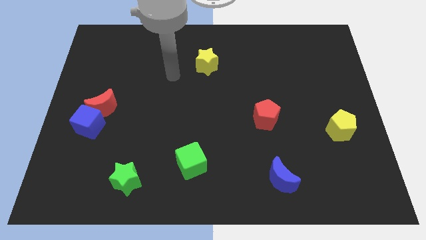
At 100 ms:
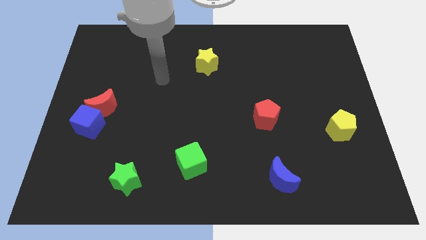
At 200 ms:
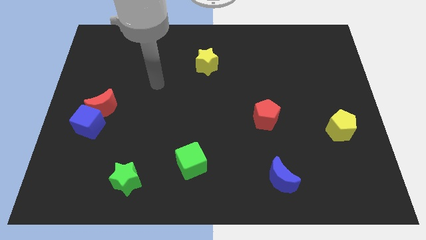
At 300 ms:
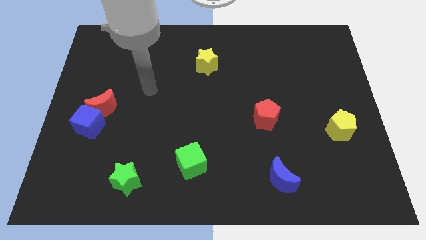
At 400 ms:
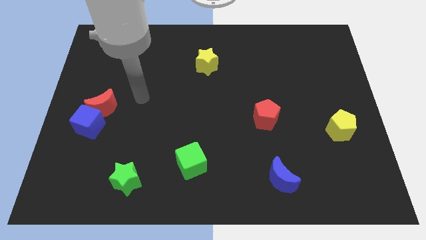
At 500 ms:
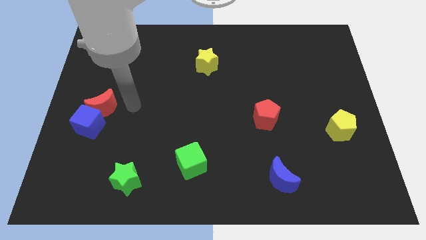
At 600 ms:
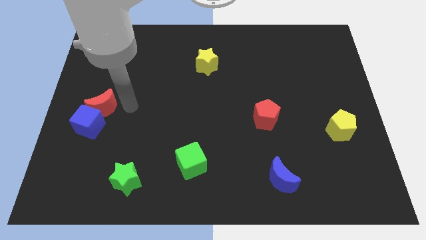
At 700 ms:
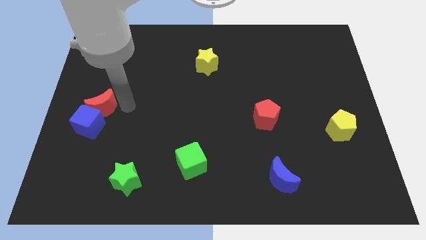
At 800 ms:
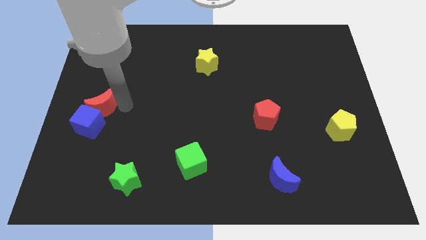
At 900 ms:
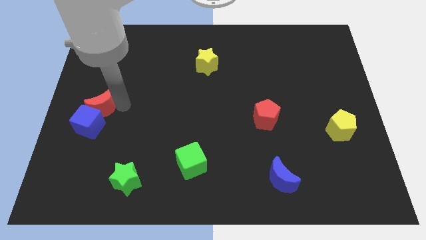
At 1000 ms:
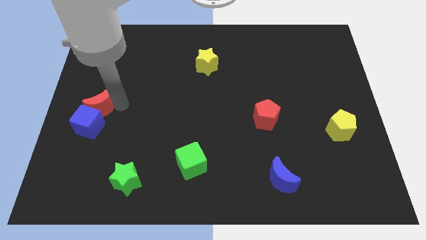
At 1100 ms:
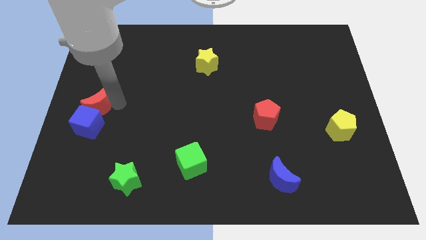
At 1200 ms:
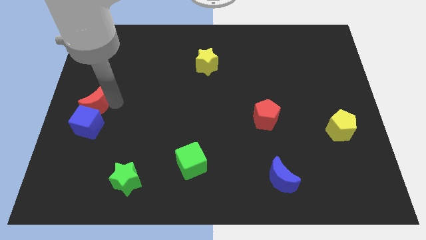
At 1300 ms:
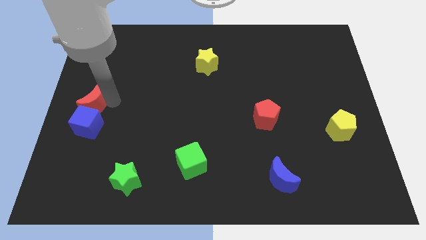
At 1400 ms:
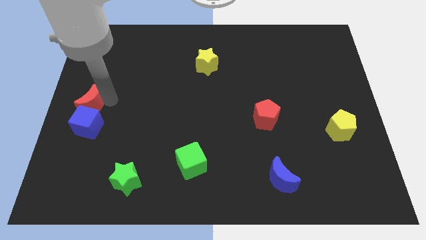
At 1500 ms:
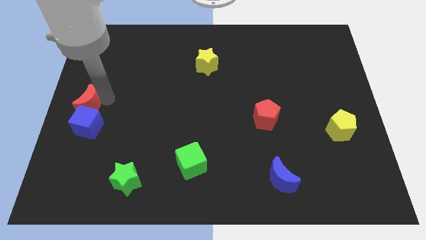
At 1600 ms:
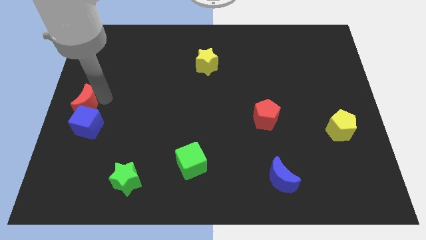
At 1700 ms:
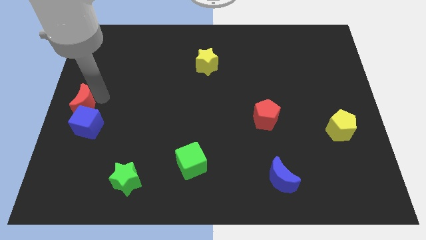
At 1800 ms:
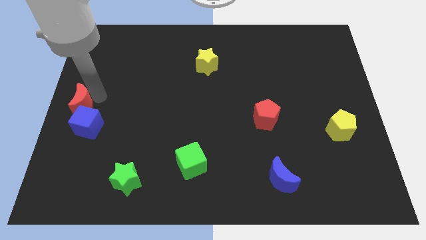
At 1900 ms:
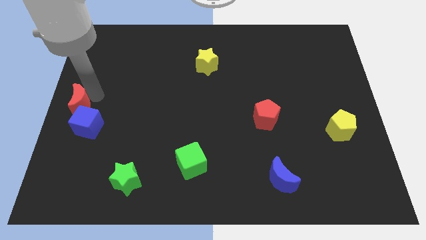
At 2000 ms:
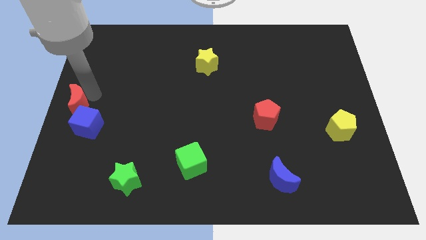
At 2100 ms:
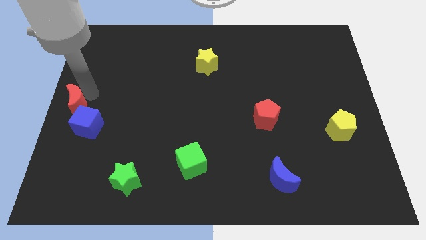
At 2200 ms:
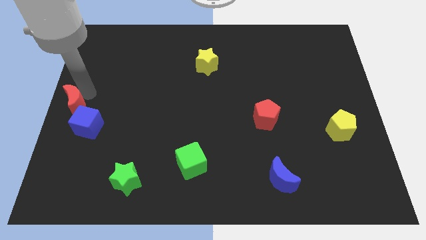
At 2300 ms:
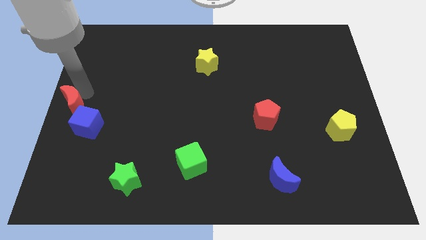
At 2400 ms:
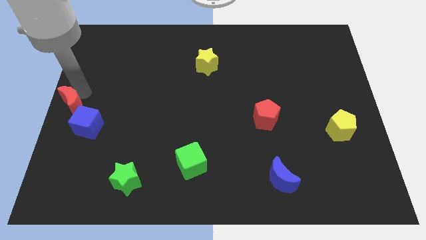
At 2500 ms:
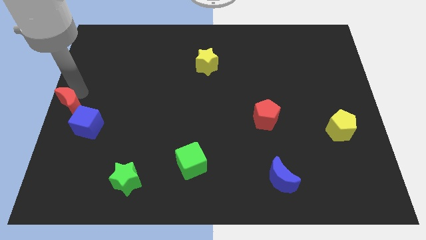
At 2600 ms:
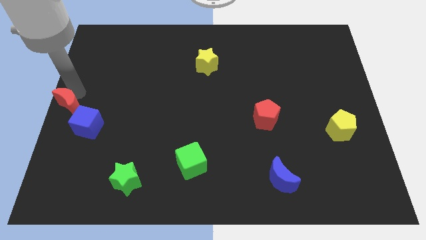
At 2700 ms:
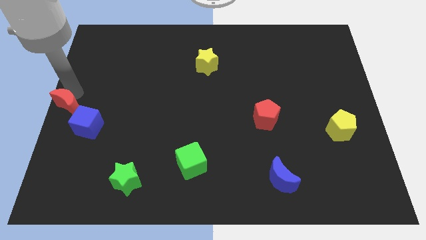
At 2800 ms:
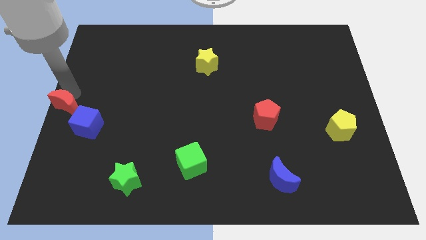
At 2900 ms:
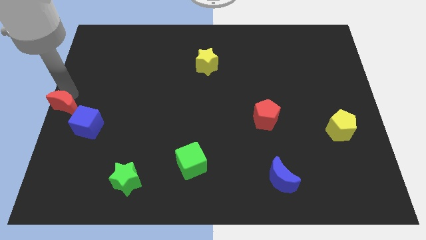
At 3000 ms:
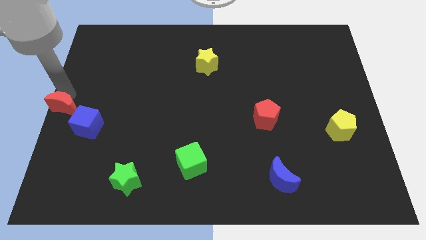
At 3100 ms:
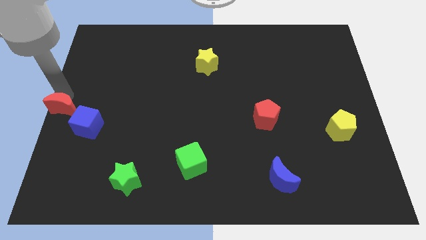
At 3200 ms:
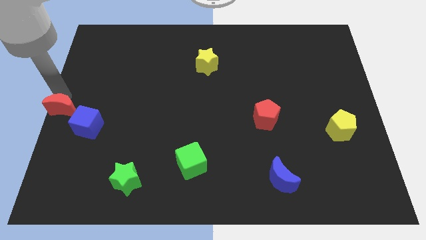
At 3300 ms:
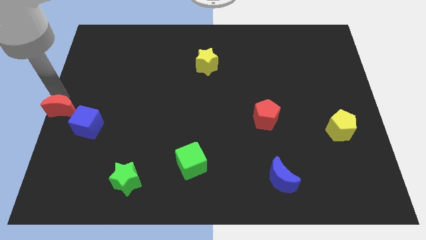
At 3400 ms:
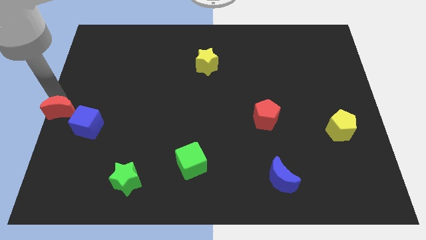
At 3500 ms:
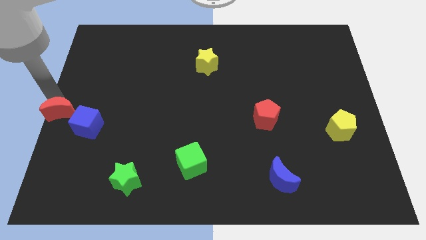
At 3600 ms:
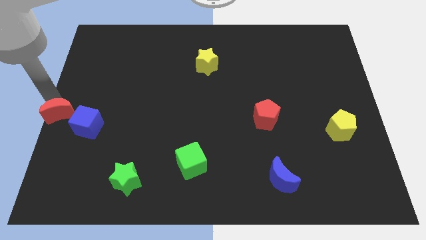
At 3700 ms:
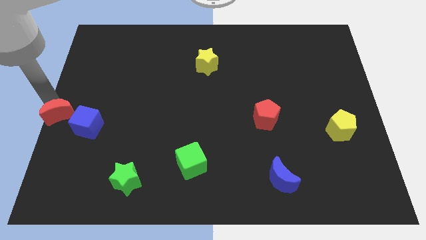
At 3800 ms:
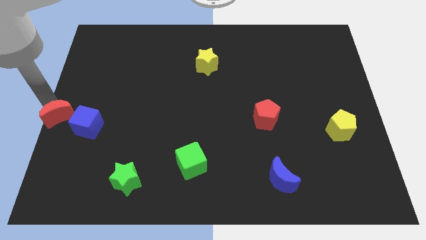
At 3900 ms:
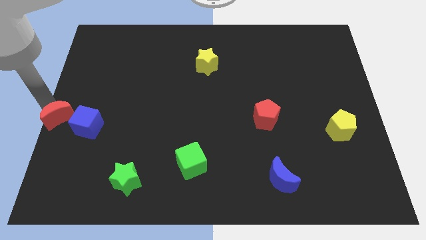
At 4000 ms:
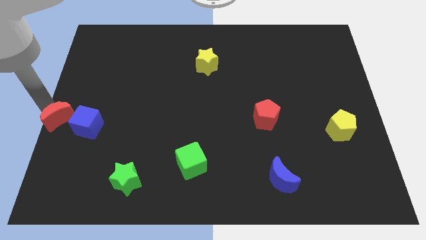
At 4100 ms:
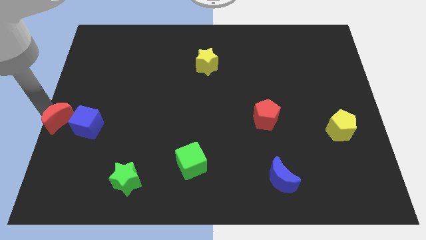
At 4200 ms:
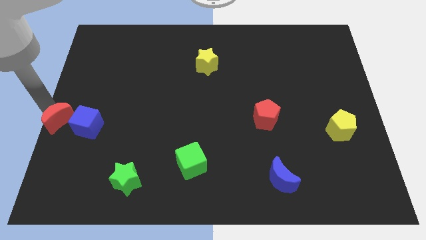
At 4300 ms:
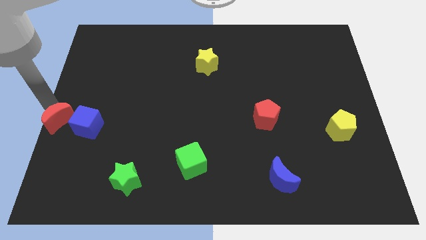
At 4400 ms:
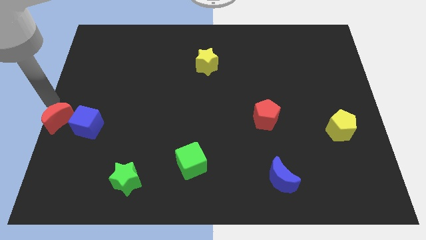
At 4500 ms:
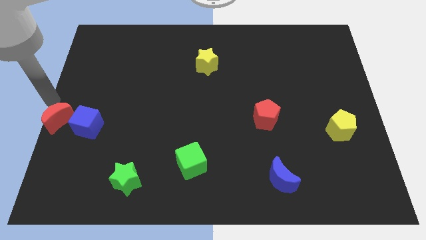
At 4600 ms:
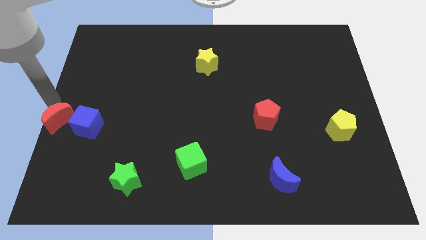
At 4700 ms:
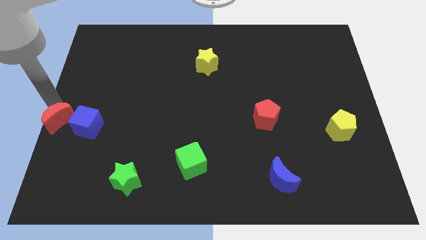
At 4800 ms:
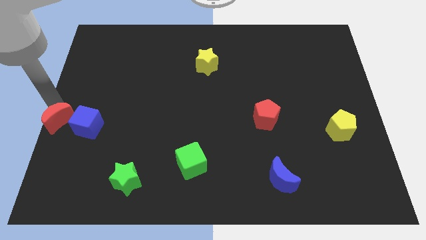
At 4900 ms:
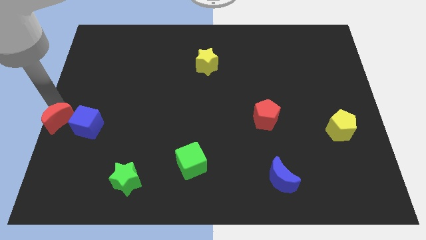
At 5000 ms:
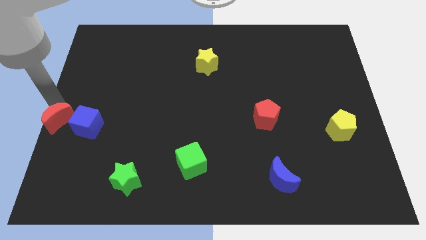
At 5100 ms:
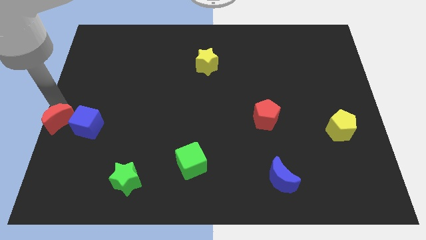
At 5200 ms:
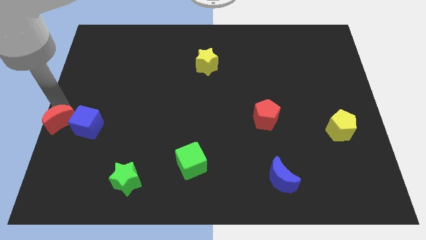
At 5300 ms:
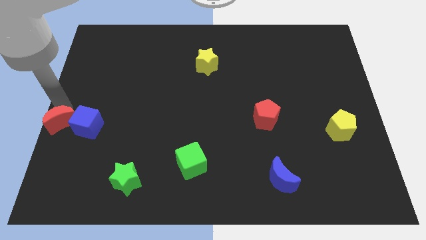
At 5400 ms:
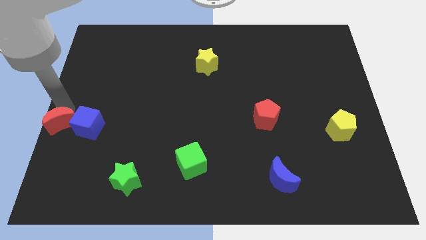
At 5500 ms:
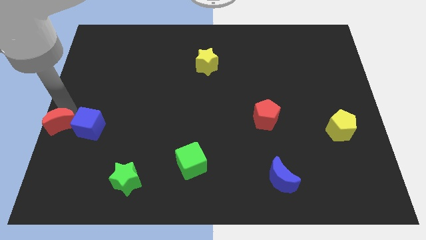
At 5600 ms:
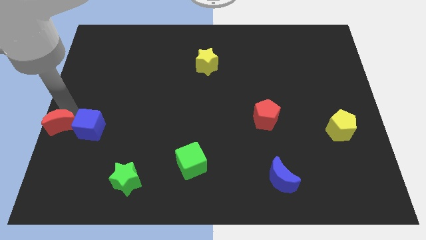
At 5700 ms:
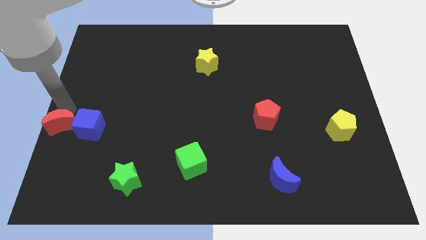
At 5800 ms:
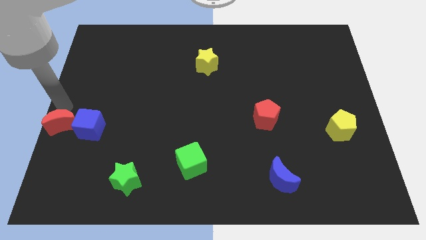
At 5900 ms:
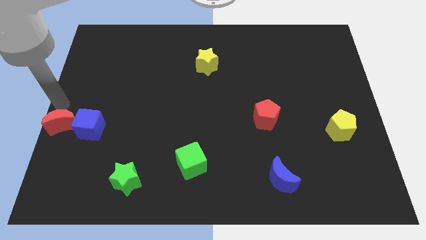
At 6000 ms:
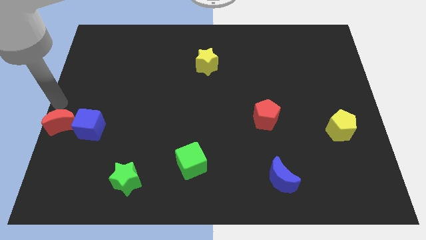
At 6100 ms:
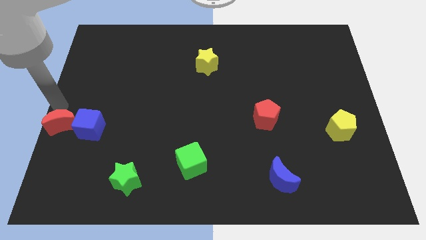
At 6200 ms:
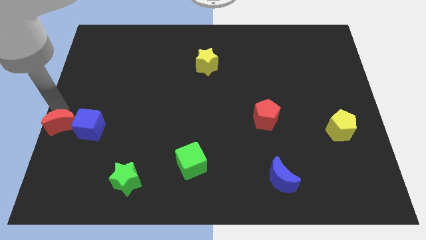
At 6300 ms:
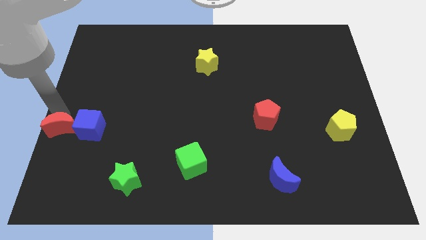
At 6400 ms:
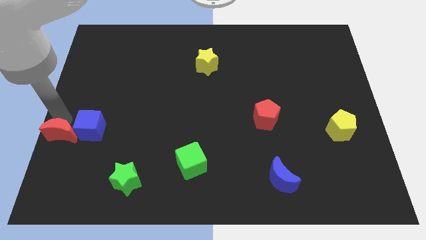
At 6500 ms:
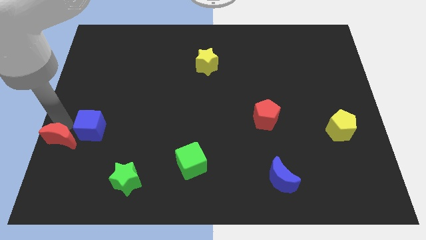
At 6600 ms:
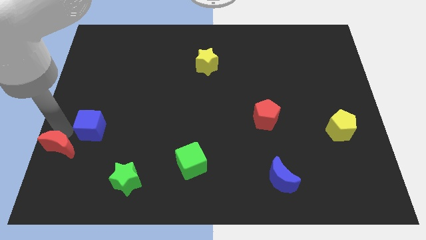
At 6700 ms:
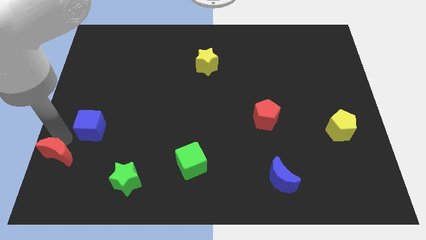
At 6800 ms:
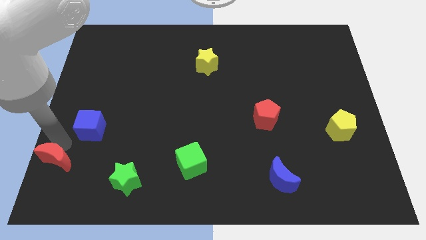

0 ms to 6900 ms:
push the red moon to the lower left corner
